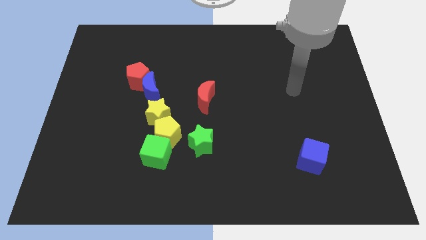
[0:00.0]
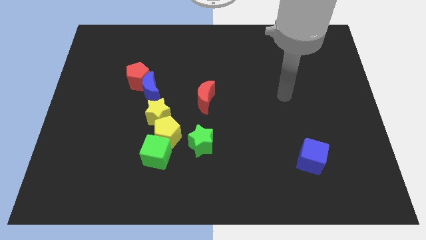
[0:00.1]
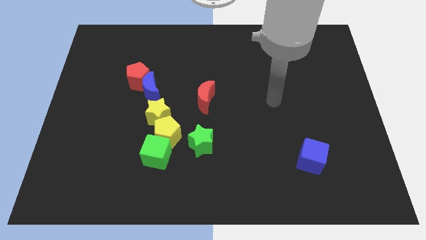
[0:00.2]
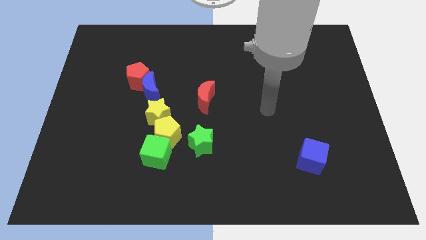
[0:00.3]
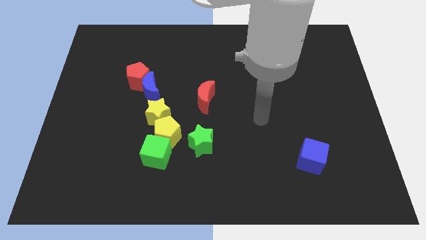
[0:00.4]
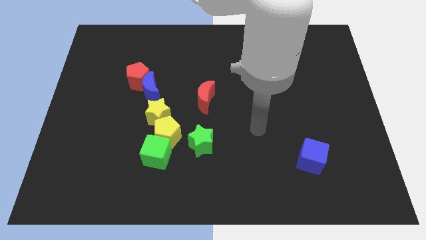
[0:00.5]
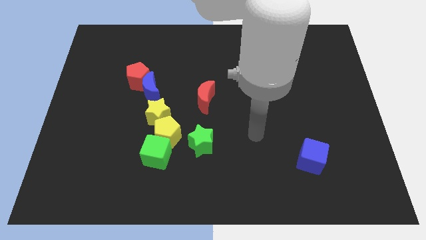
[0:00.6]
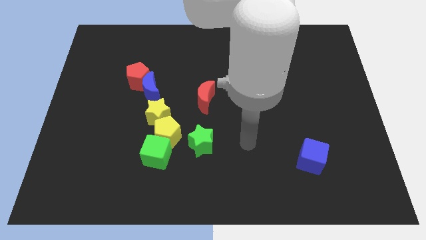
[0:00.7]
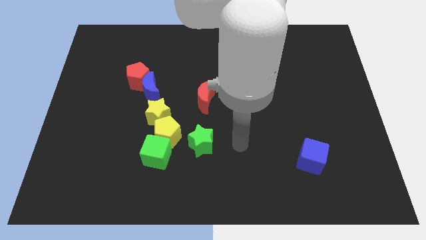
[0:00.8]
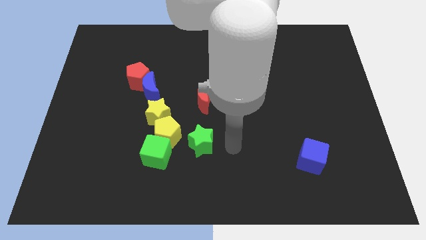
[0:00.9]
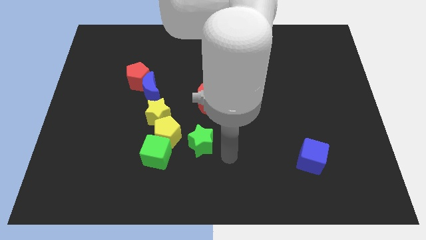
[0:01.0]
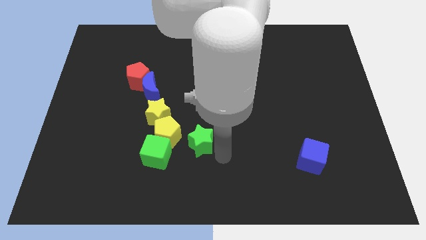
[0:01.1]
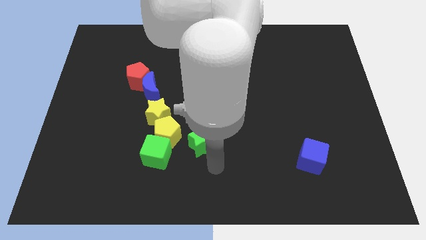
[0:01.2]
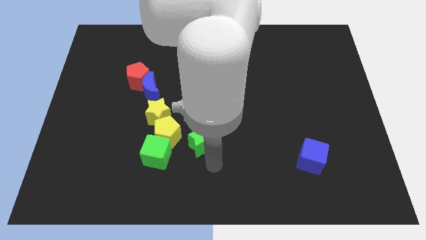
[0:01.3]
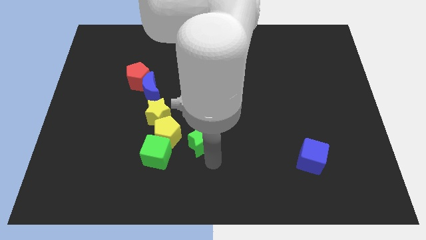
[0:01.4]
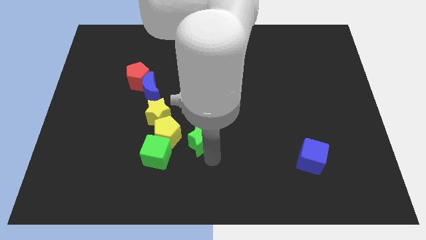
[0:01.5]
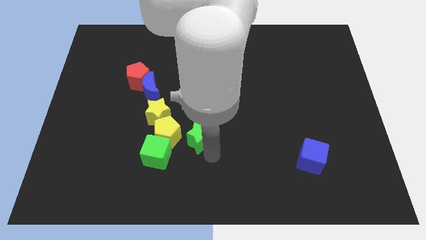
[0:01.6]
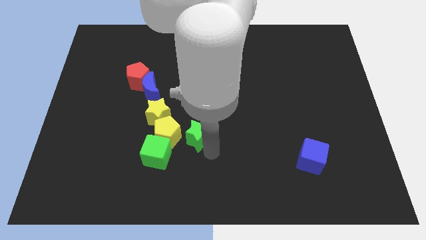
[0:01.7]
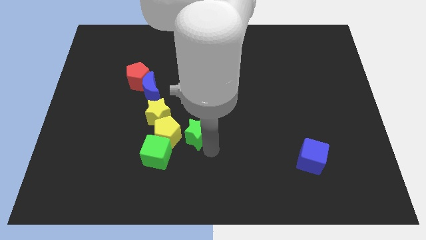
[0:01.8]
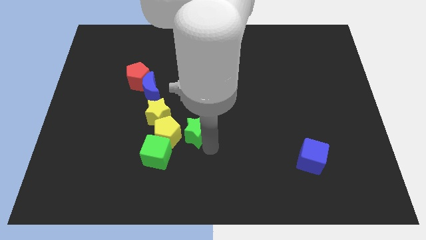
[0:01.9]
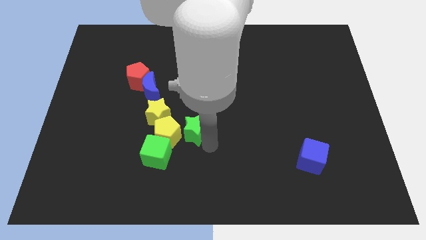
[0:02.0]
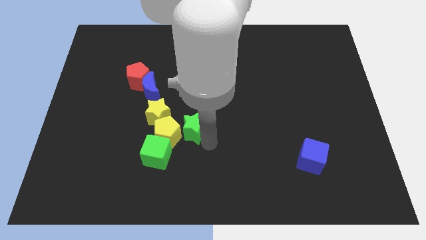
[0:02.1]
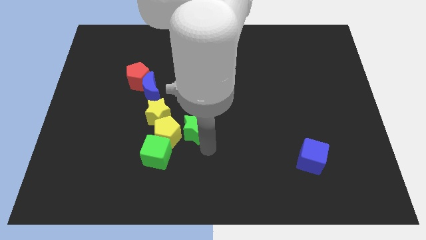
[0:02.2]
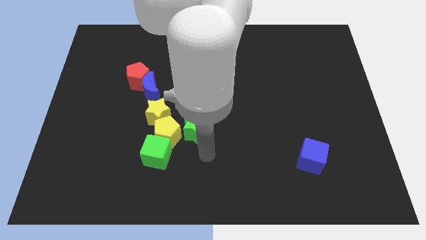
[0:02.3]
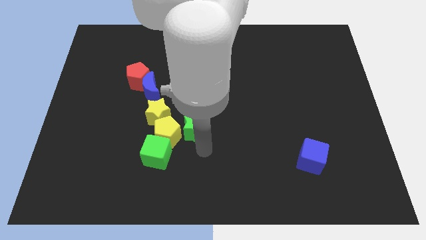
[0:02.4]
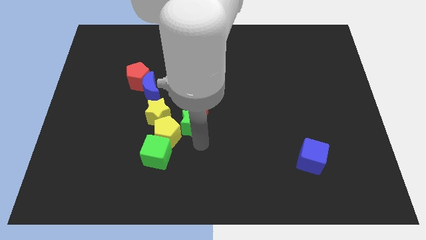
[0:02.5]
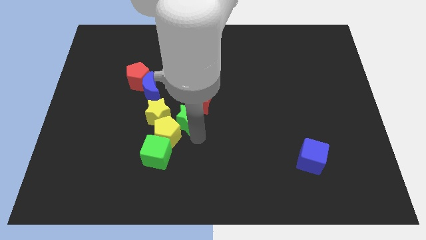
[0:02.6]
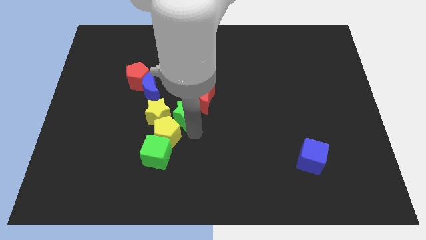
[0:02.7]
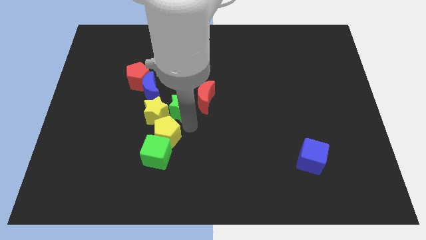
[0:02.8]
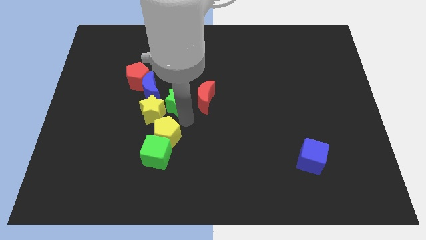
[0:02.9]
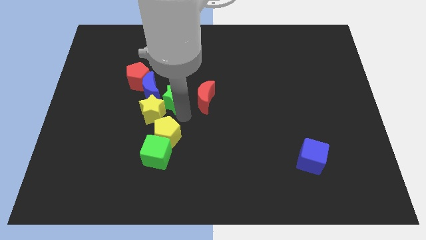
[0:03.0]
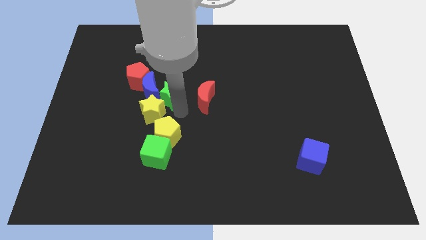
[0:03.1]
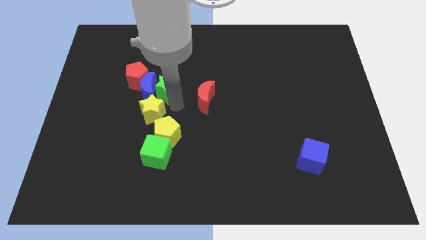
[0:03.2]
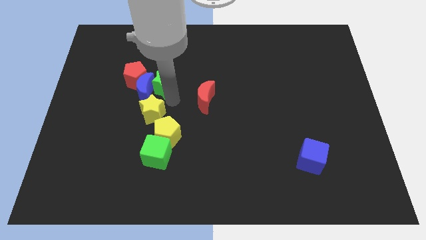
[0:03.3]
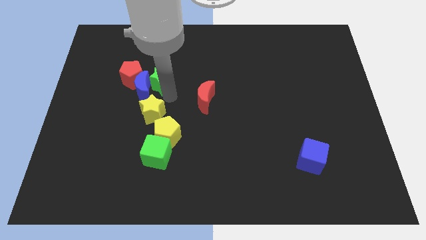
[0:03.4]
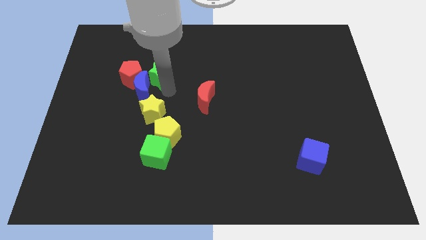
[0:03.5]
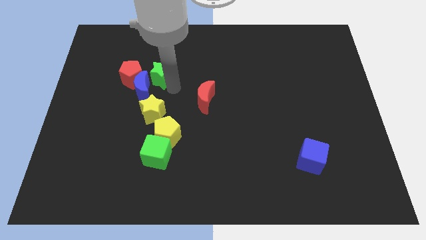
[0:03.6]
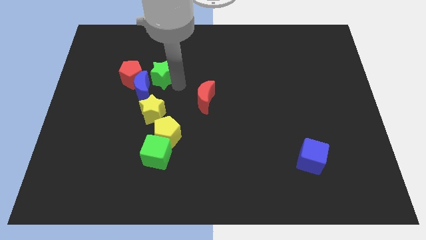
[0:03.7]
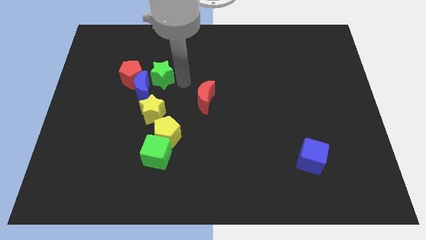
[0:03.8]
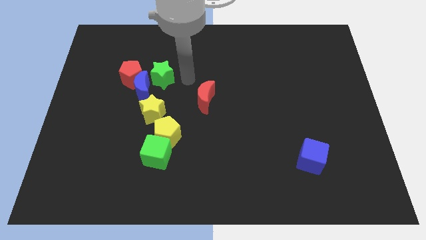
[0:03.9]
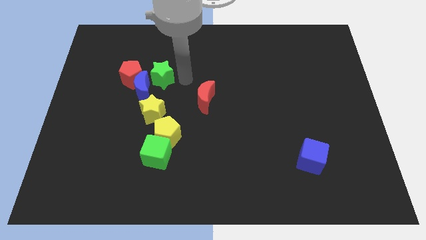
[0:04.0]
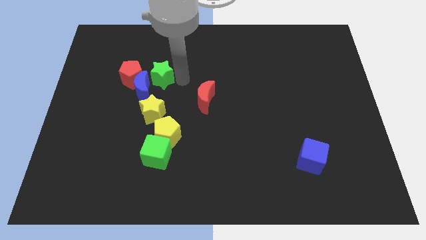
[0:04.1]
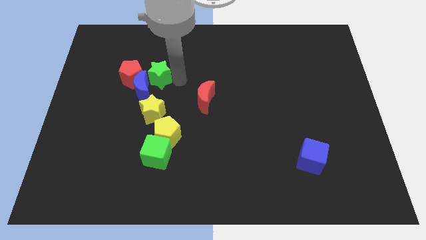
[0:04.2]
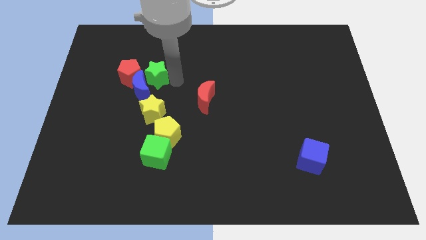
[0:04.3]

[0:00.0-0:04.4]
move the green star next to the red pentagon

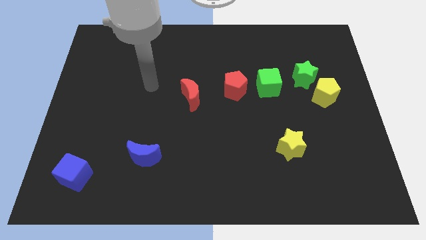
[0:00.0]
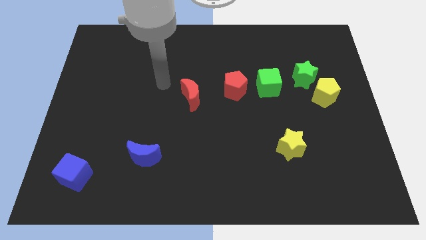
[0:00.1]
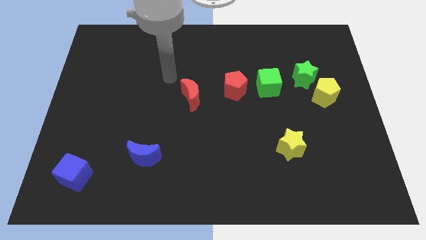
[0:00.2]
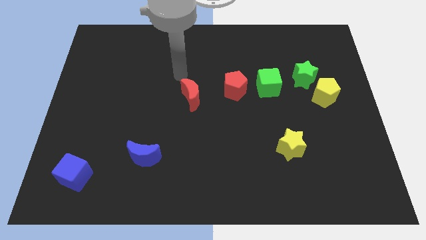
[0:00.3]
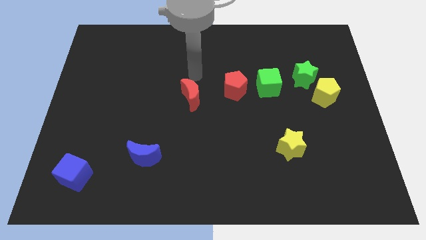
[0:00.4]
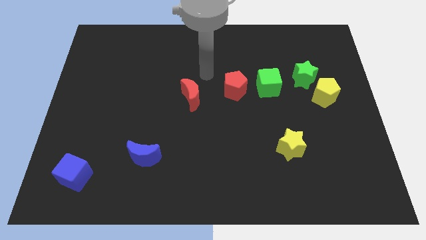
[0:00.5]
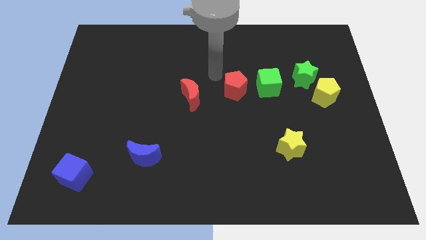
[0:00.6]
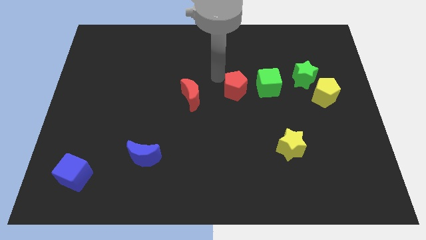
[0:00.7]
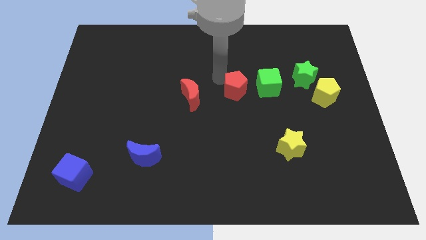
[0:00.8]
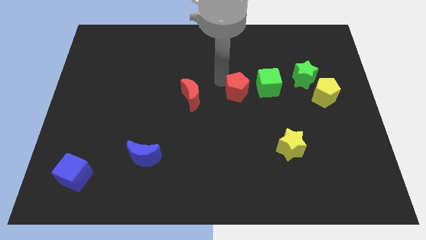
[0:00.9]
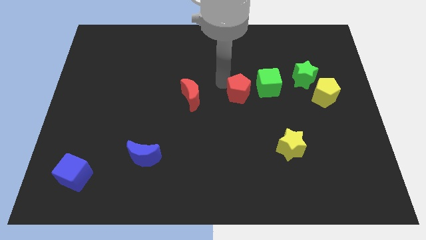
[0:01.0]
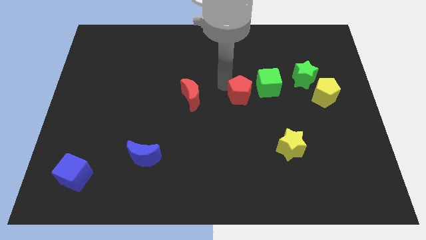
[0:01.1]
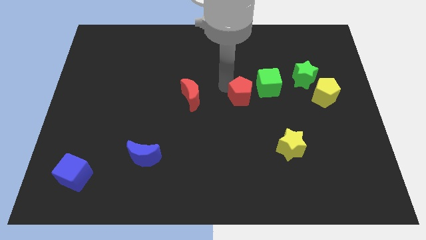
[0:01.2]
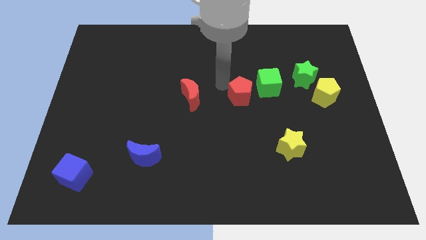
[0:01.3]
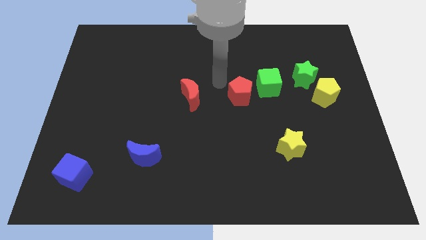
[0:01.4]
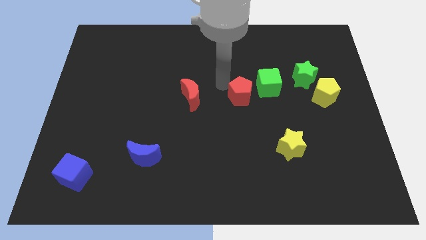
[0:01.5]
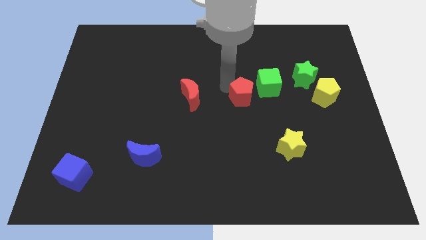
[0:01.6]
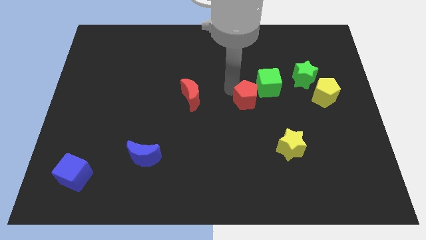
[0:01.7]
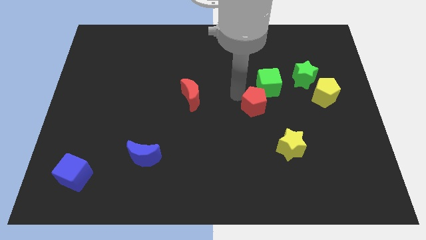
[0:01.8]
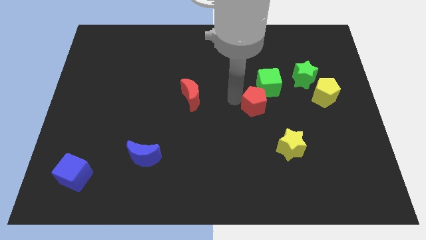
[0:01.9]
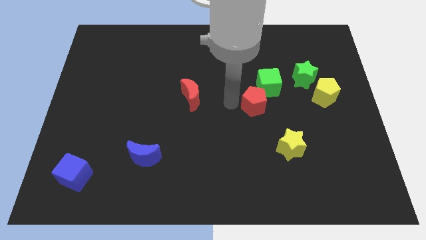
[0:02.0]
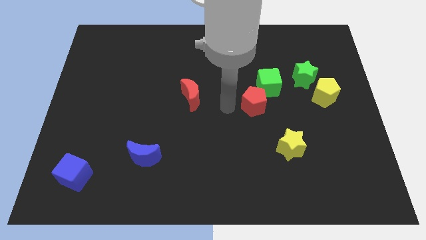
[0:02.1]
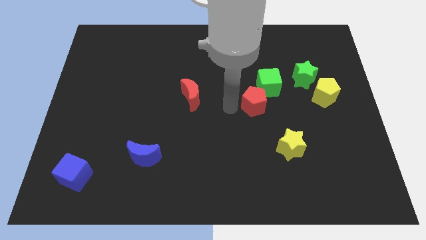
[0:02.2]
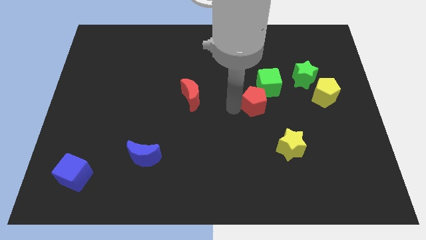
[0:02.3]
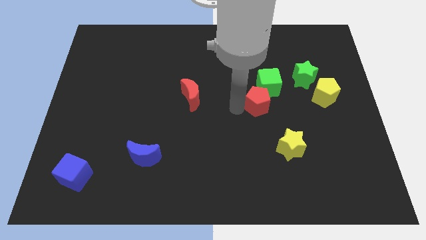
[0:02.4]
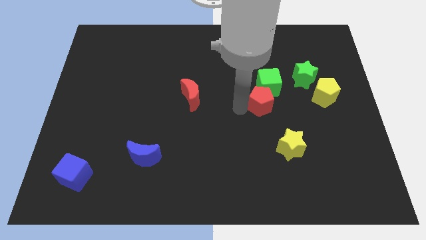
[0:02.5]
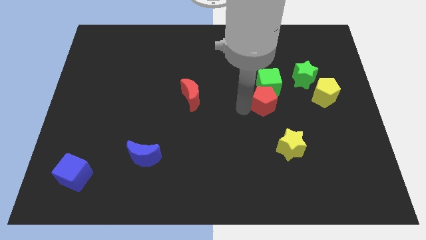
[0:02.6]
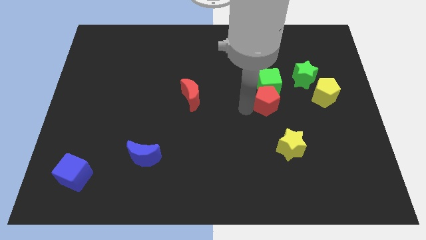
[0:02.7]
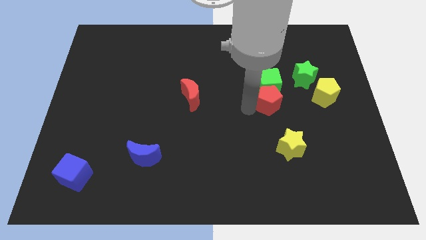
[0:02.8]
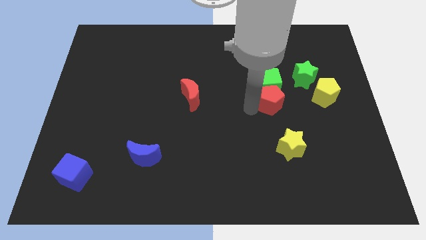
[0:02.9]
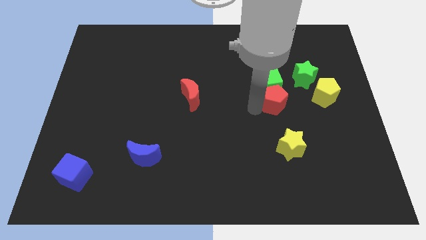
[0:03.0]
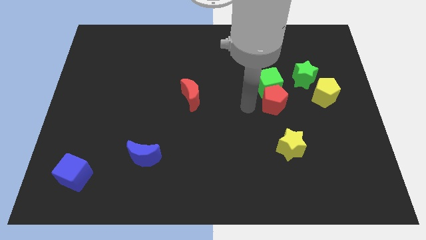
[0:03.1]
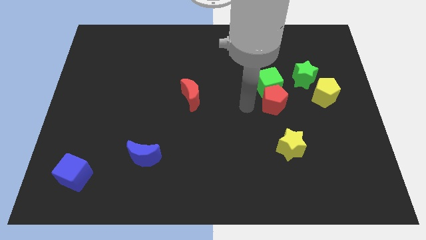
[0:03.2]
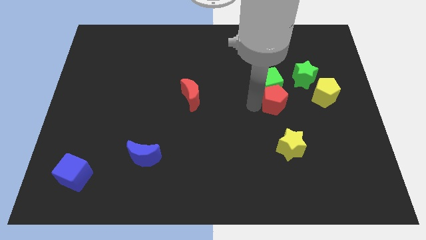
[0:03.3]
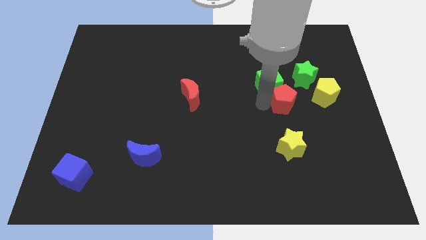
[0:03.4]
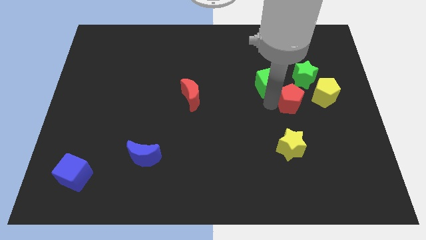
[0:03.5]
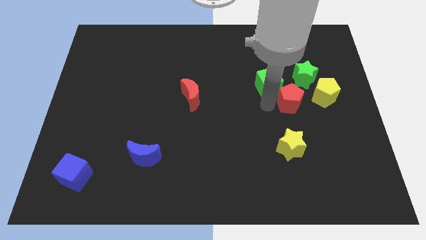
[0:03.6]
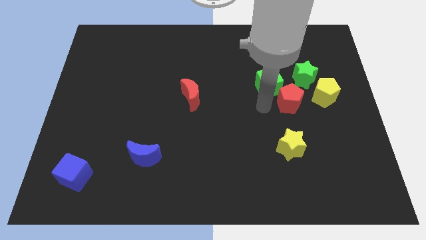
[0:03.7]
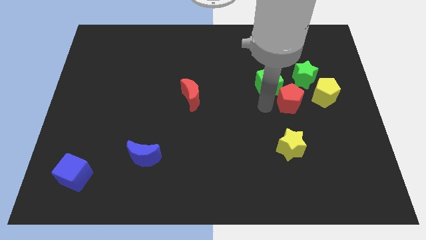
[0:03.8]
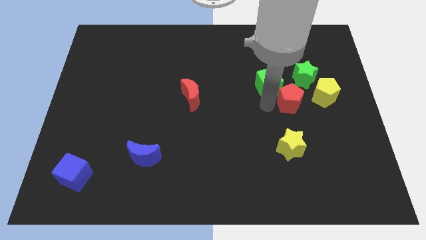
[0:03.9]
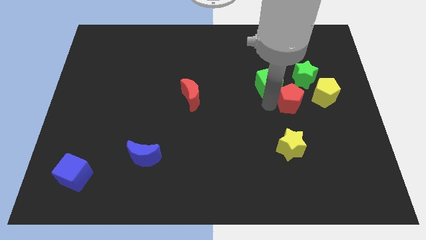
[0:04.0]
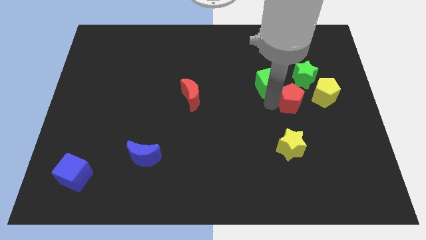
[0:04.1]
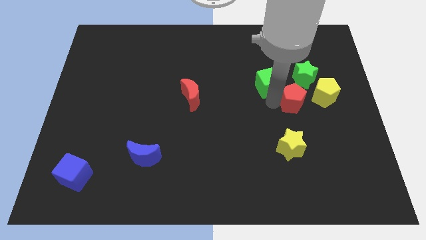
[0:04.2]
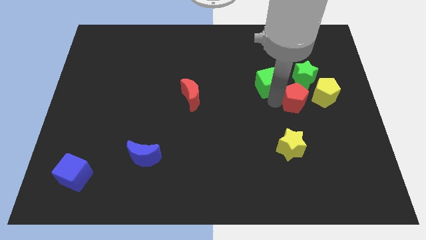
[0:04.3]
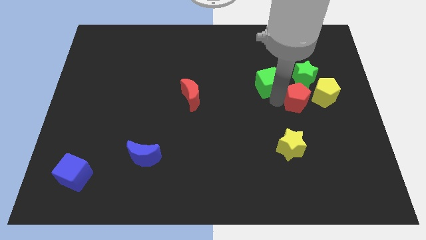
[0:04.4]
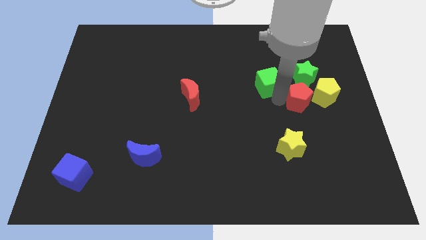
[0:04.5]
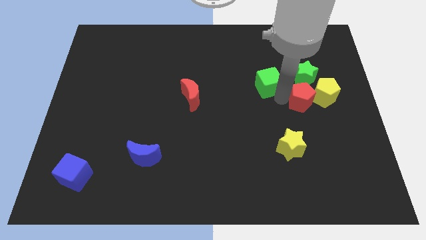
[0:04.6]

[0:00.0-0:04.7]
move the red pentagon towards the yellow pentagon
